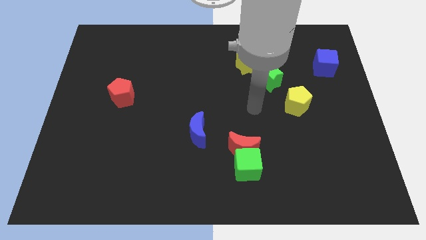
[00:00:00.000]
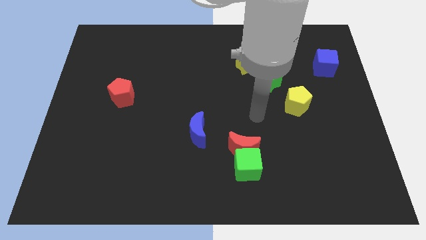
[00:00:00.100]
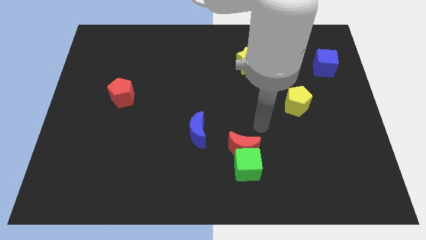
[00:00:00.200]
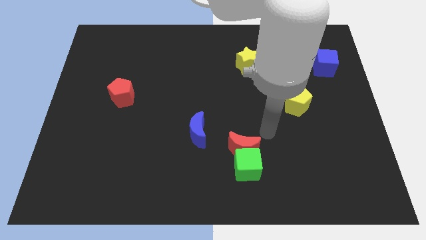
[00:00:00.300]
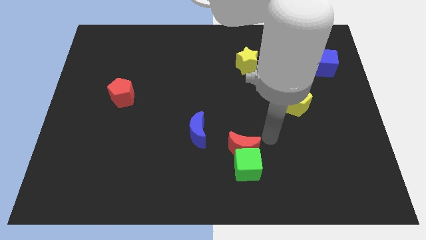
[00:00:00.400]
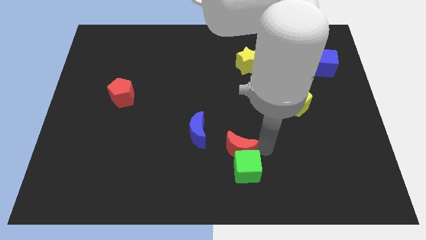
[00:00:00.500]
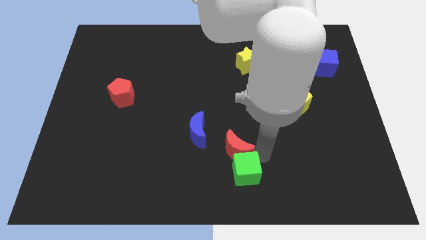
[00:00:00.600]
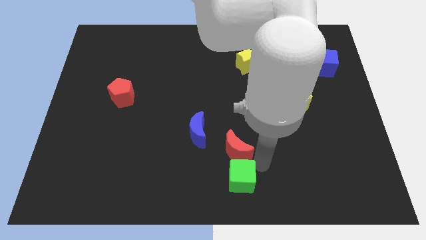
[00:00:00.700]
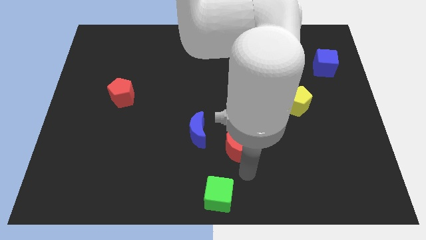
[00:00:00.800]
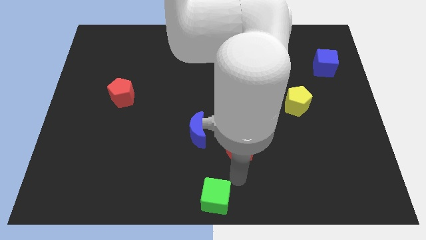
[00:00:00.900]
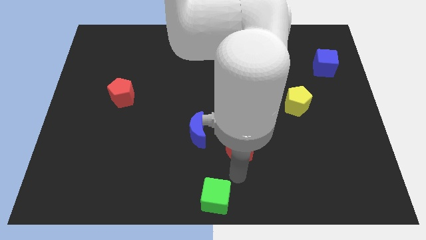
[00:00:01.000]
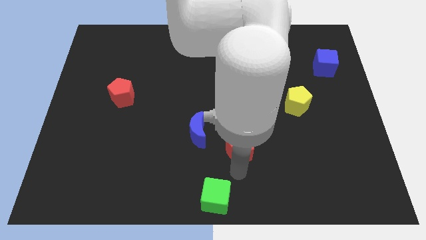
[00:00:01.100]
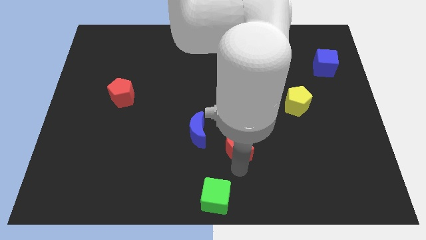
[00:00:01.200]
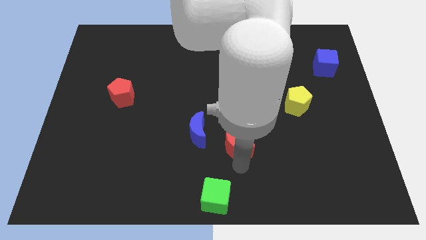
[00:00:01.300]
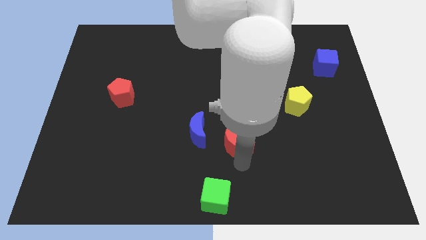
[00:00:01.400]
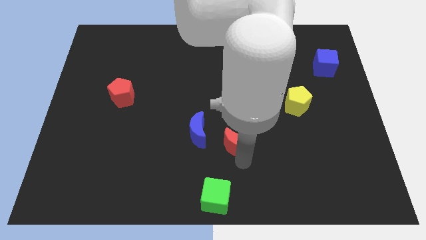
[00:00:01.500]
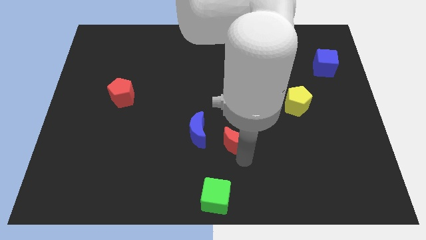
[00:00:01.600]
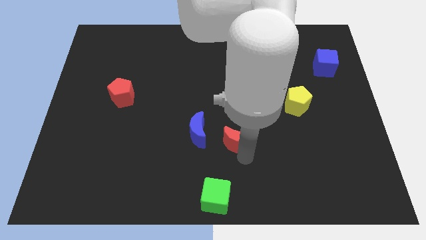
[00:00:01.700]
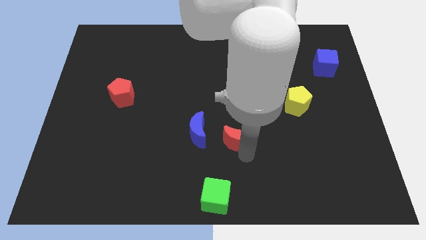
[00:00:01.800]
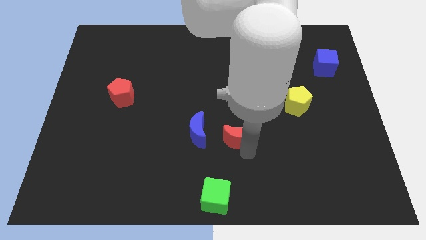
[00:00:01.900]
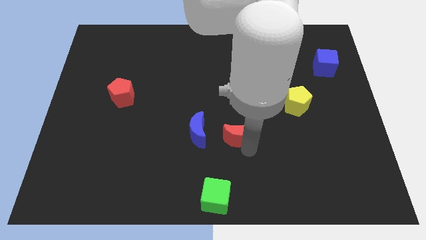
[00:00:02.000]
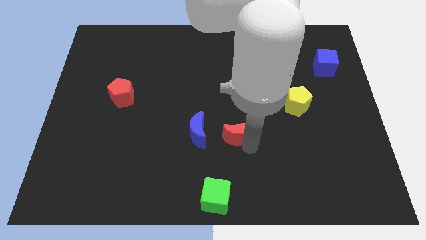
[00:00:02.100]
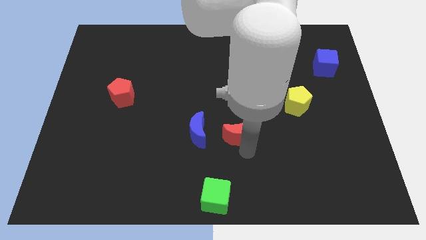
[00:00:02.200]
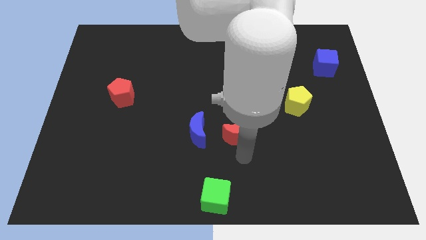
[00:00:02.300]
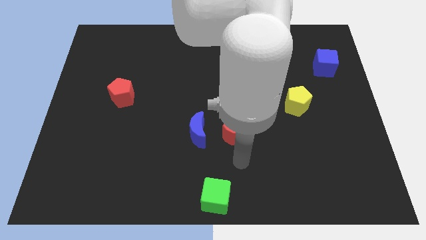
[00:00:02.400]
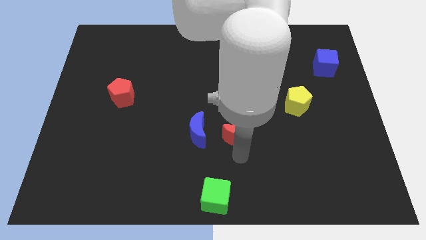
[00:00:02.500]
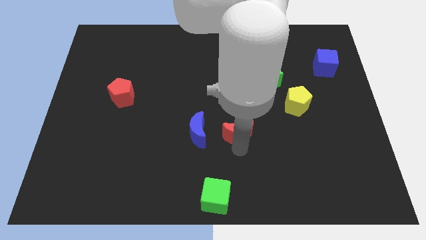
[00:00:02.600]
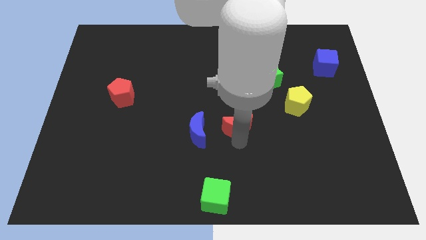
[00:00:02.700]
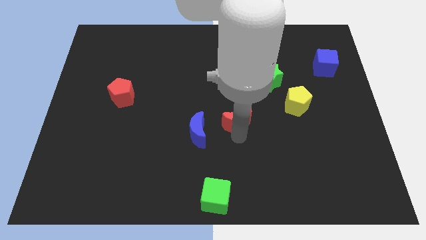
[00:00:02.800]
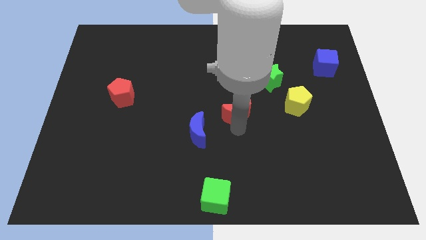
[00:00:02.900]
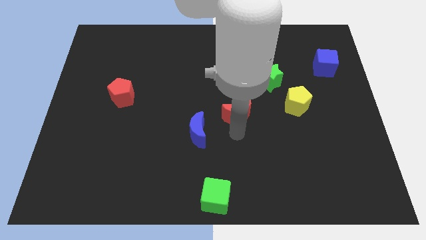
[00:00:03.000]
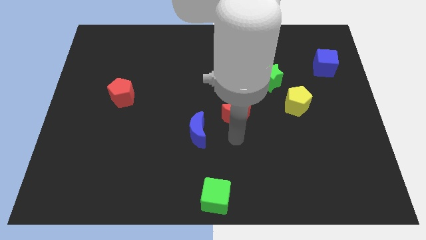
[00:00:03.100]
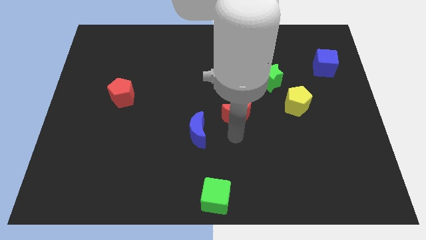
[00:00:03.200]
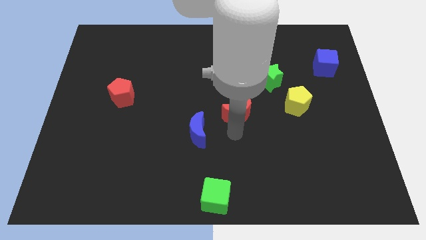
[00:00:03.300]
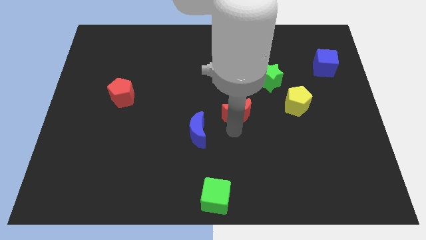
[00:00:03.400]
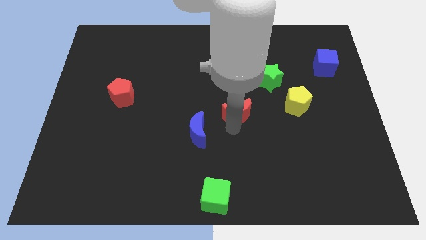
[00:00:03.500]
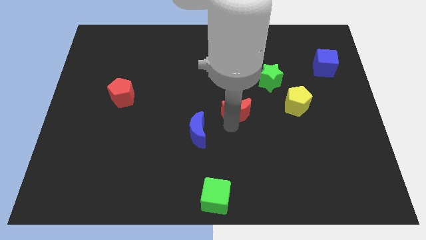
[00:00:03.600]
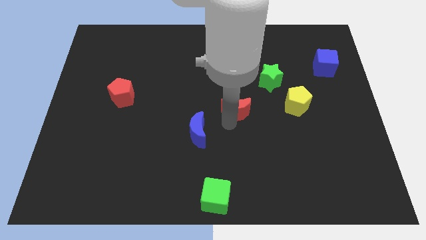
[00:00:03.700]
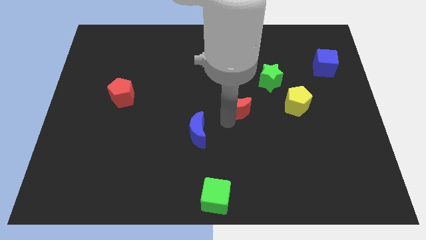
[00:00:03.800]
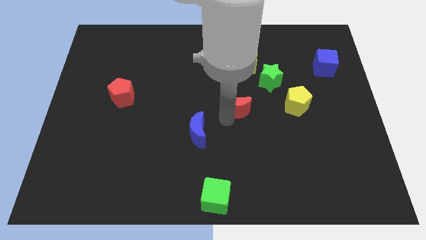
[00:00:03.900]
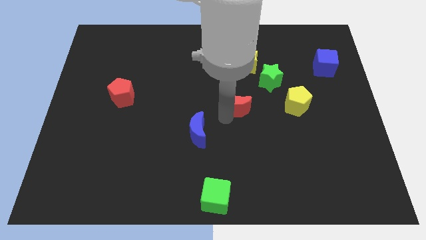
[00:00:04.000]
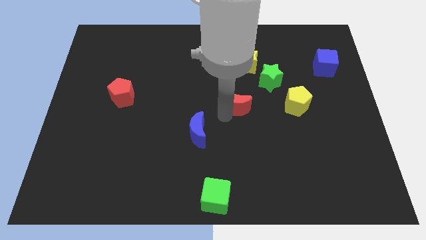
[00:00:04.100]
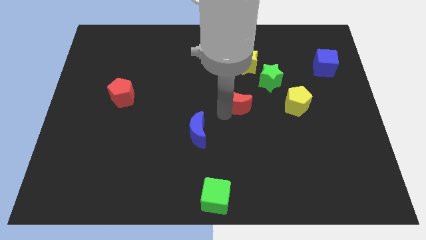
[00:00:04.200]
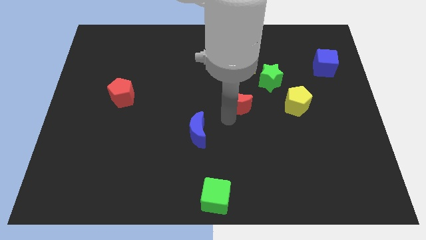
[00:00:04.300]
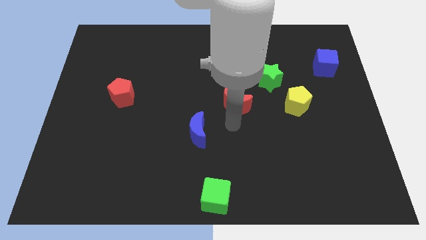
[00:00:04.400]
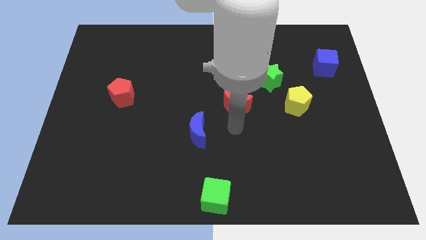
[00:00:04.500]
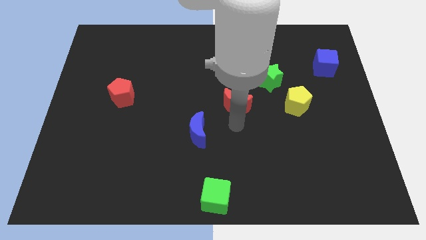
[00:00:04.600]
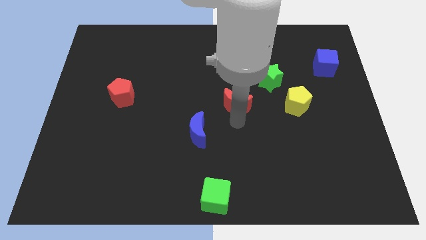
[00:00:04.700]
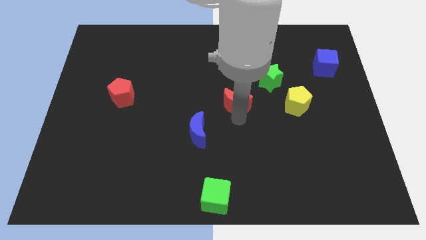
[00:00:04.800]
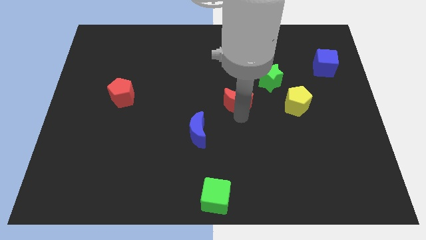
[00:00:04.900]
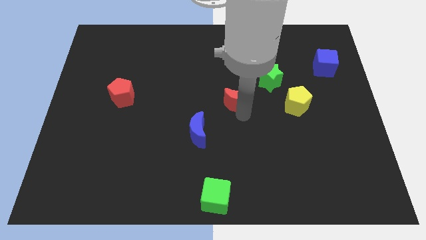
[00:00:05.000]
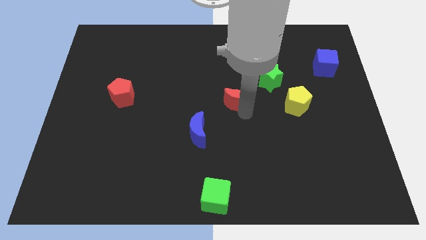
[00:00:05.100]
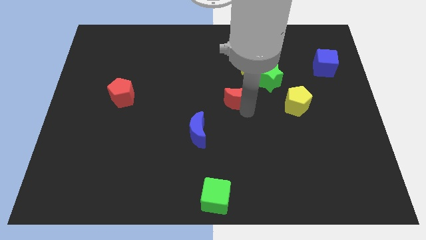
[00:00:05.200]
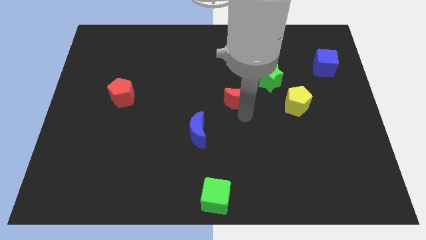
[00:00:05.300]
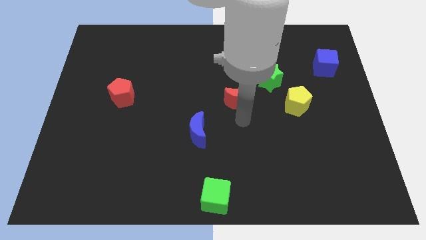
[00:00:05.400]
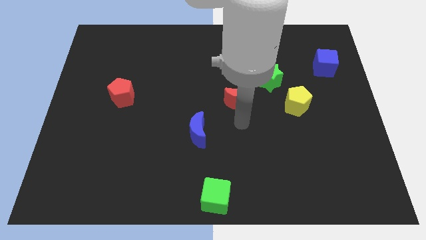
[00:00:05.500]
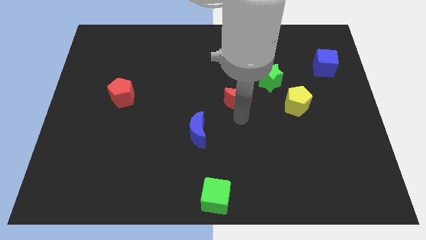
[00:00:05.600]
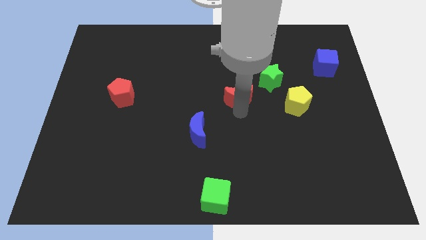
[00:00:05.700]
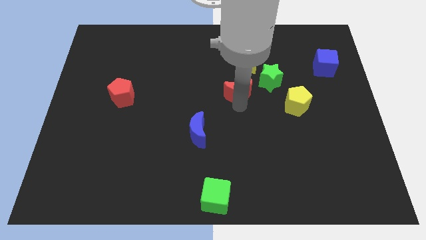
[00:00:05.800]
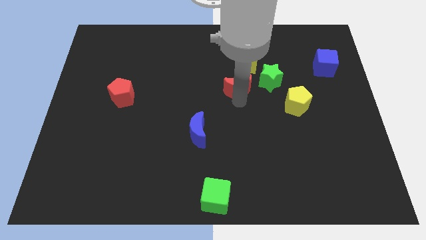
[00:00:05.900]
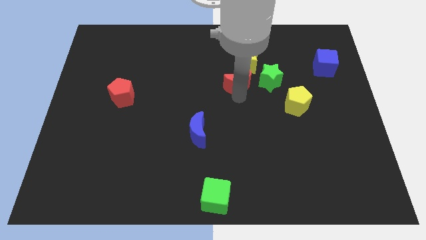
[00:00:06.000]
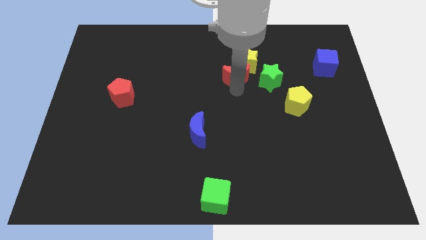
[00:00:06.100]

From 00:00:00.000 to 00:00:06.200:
push the red moon to the yellow star

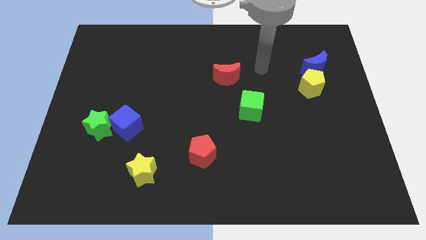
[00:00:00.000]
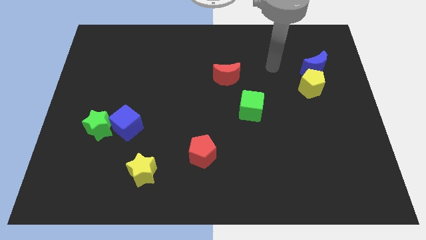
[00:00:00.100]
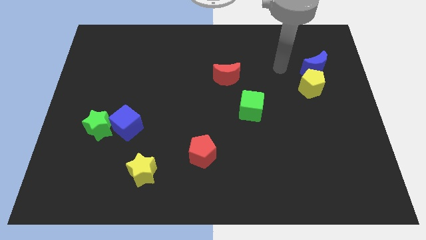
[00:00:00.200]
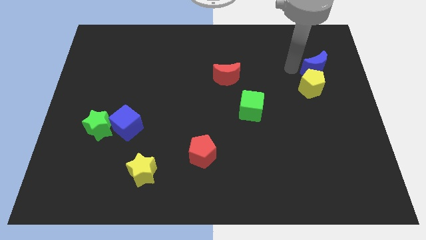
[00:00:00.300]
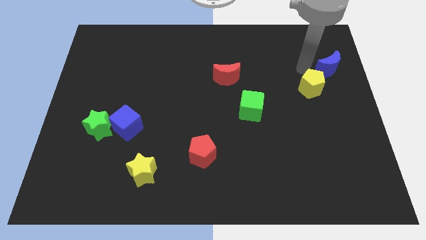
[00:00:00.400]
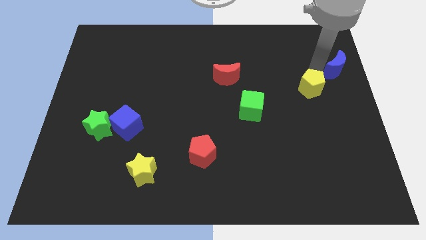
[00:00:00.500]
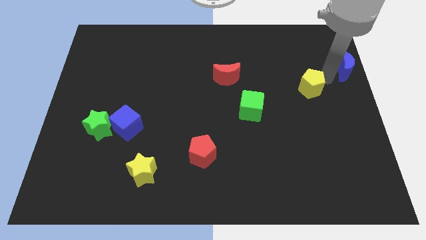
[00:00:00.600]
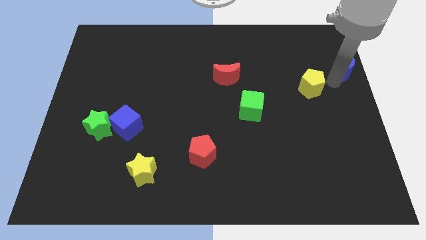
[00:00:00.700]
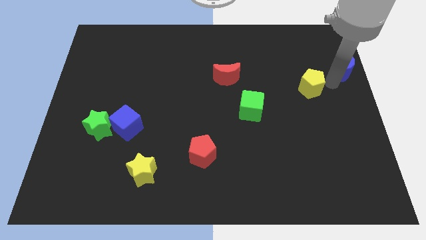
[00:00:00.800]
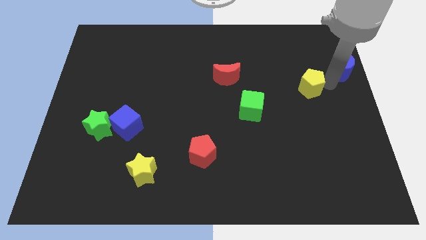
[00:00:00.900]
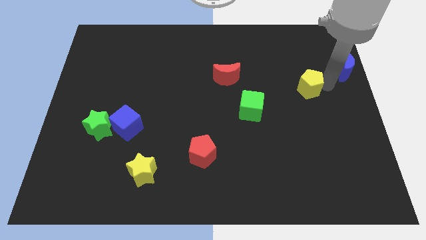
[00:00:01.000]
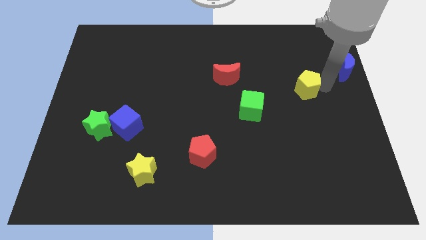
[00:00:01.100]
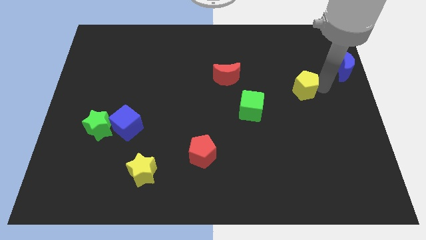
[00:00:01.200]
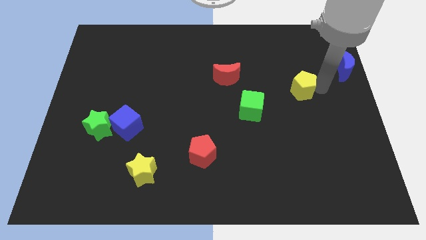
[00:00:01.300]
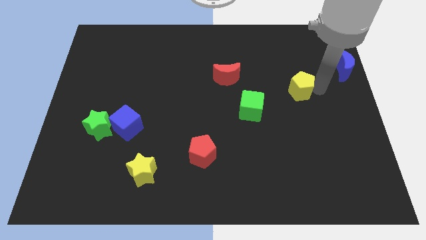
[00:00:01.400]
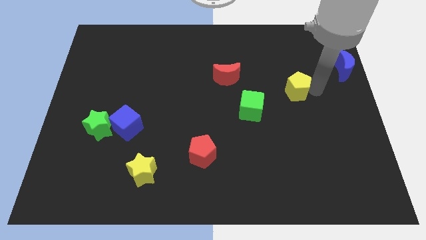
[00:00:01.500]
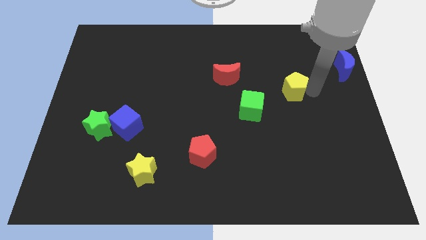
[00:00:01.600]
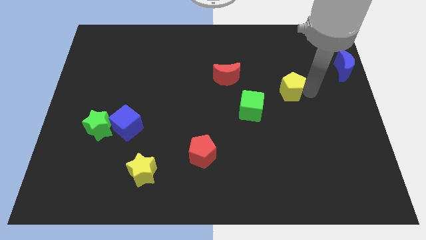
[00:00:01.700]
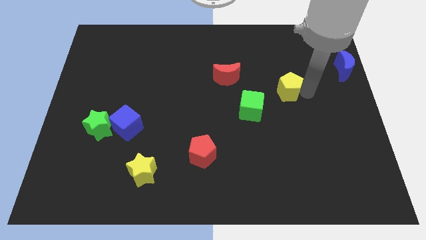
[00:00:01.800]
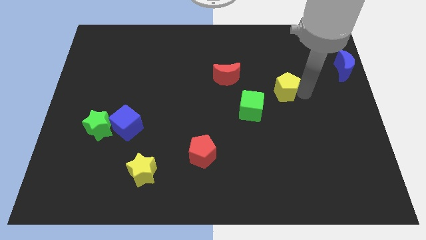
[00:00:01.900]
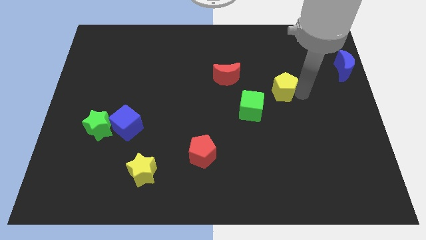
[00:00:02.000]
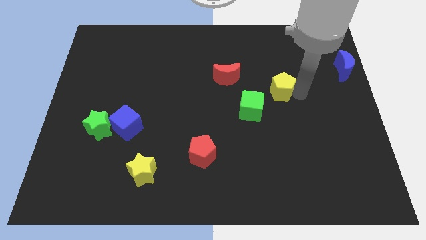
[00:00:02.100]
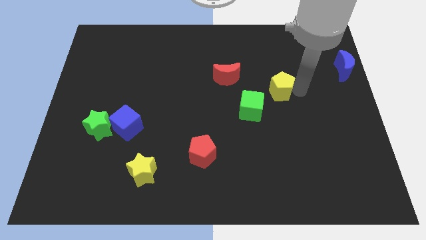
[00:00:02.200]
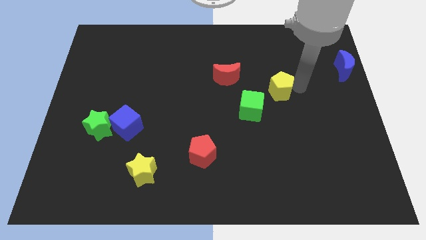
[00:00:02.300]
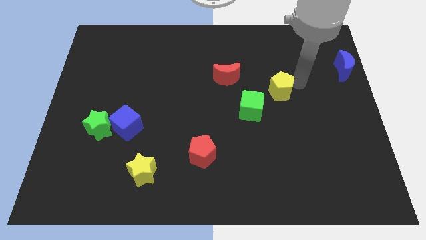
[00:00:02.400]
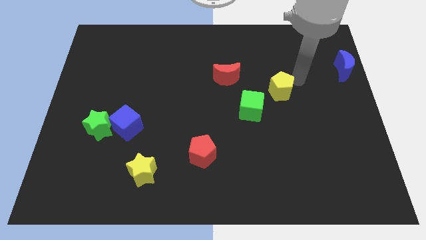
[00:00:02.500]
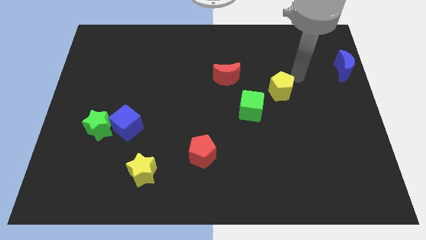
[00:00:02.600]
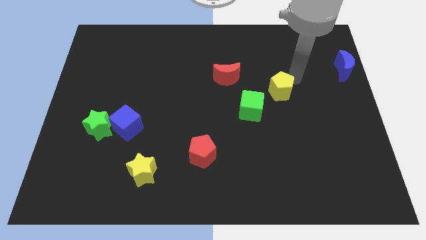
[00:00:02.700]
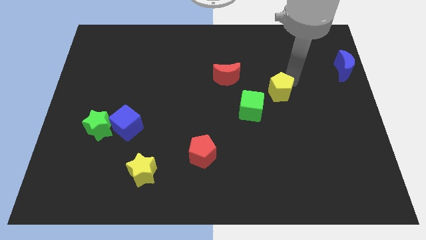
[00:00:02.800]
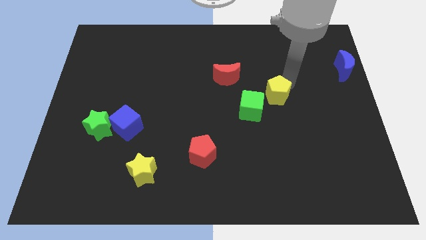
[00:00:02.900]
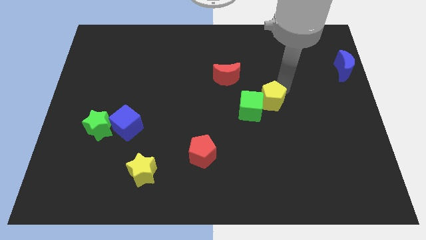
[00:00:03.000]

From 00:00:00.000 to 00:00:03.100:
push the yellow pentagon towards the green cube
